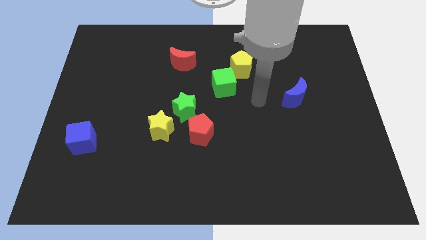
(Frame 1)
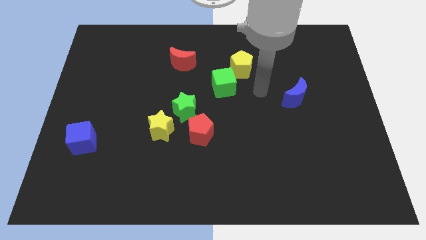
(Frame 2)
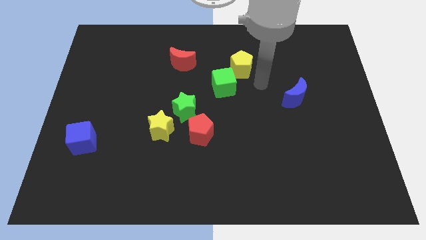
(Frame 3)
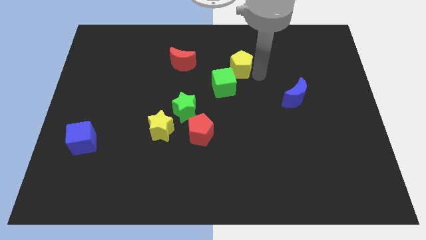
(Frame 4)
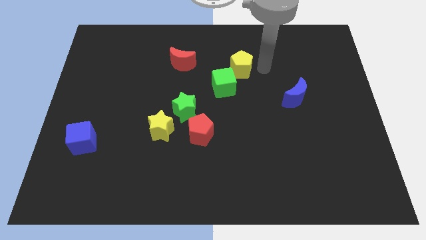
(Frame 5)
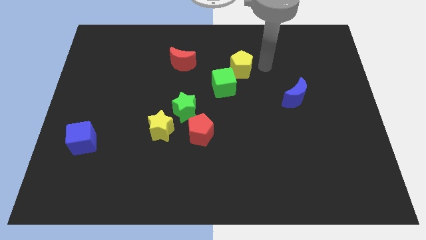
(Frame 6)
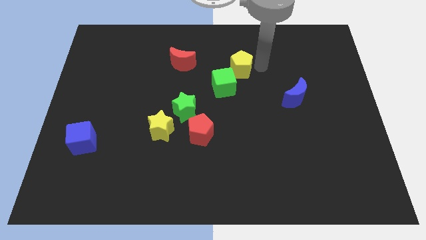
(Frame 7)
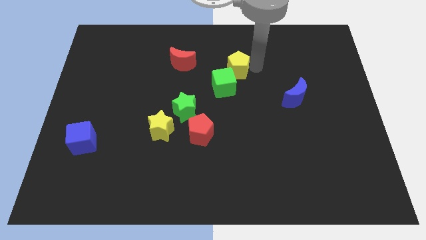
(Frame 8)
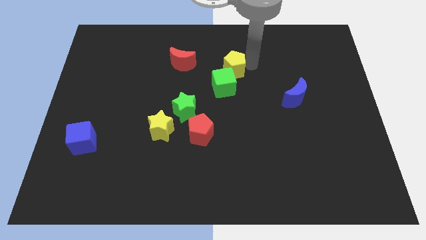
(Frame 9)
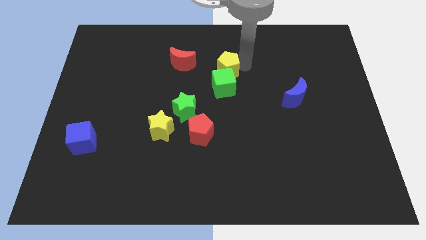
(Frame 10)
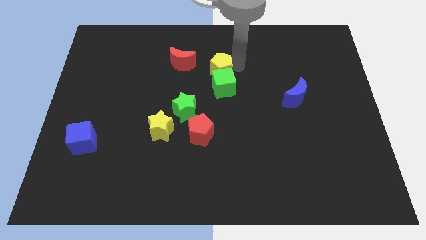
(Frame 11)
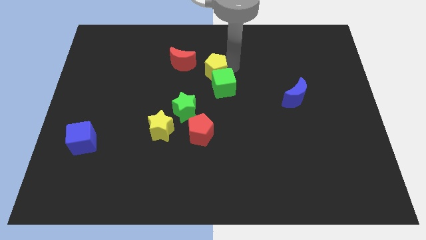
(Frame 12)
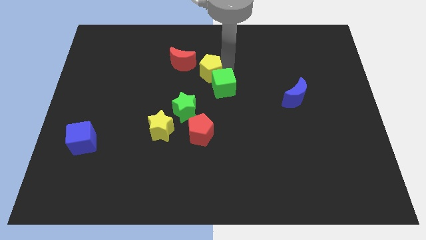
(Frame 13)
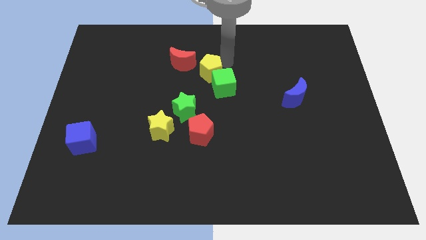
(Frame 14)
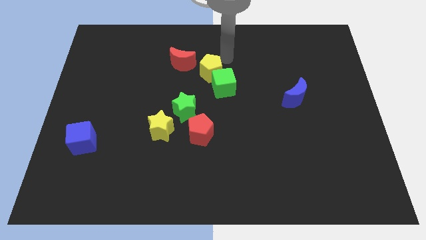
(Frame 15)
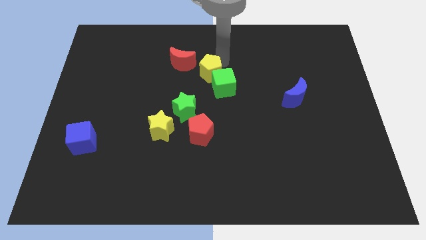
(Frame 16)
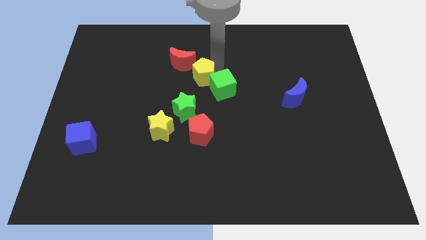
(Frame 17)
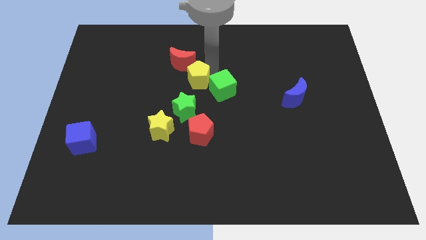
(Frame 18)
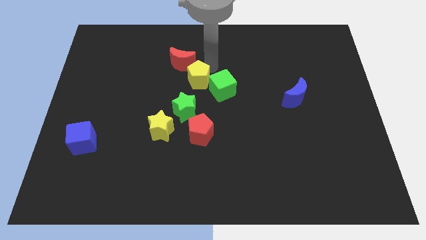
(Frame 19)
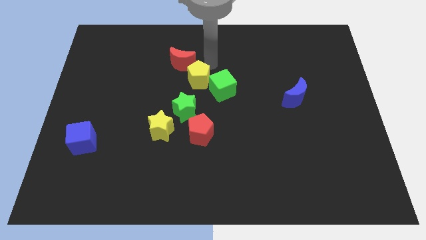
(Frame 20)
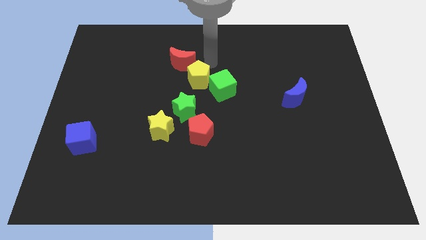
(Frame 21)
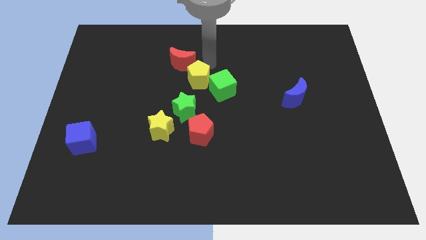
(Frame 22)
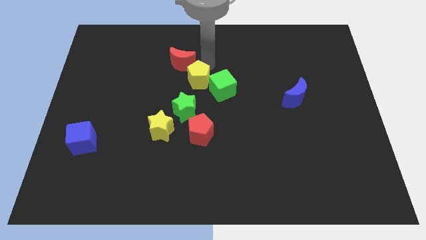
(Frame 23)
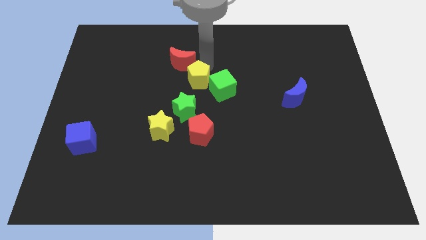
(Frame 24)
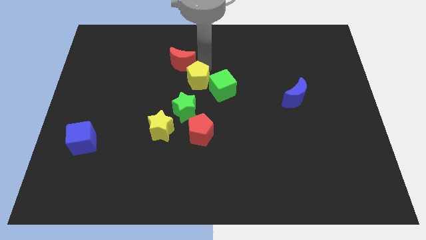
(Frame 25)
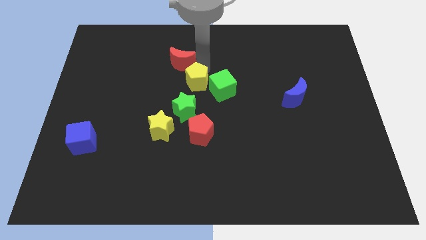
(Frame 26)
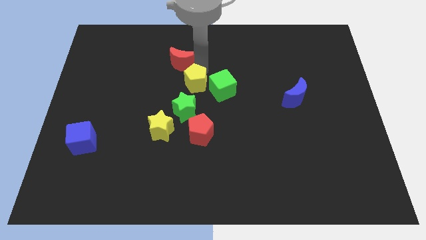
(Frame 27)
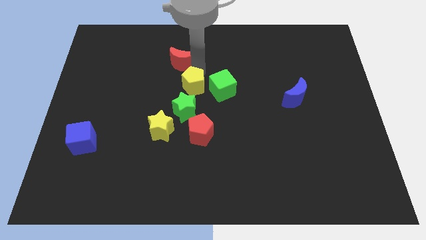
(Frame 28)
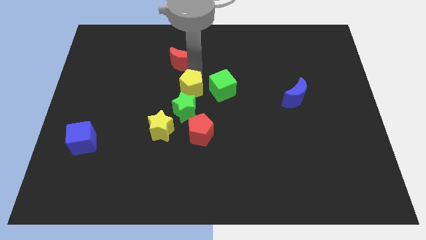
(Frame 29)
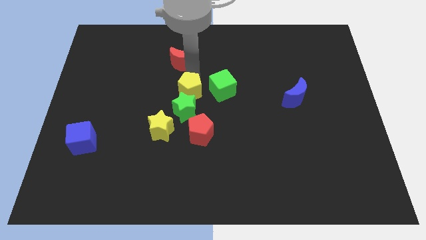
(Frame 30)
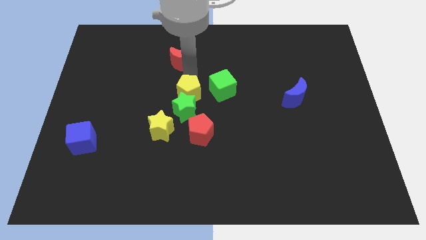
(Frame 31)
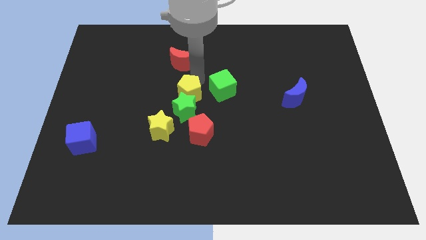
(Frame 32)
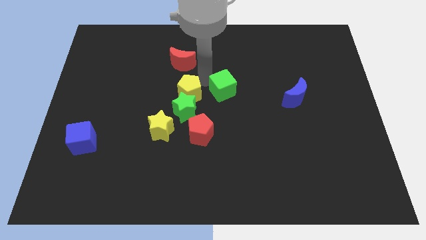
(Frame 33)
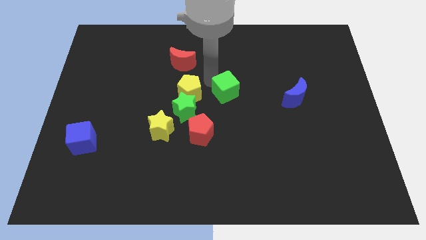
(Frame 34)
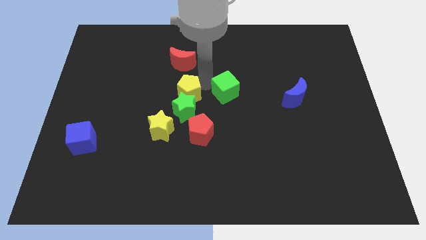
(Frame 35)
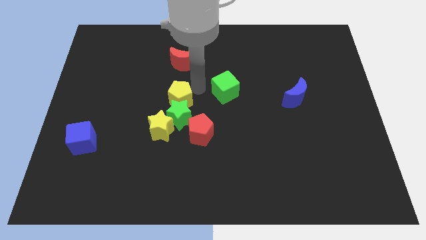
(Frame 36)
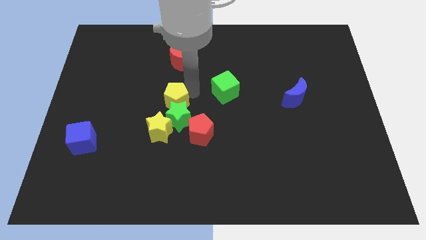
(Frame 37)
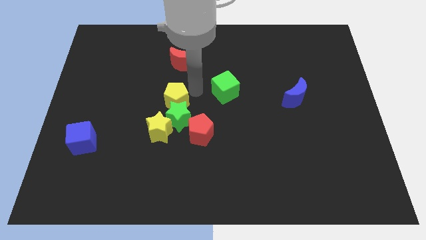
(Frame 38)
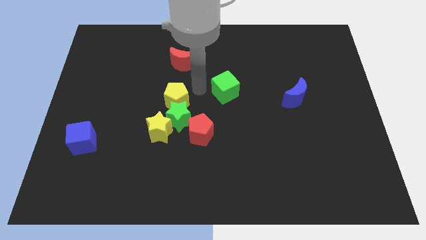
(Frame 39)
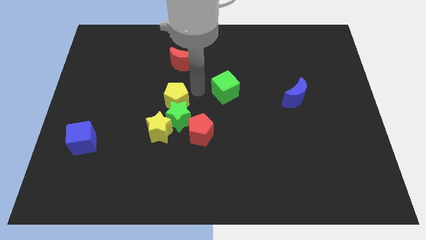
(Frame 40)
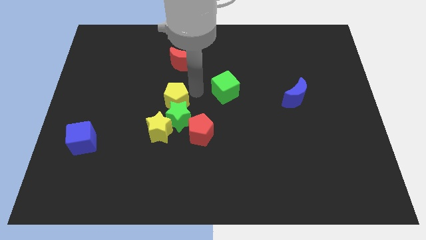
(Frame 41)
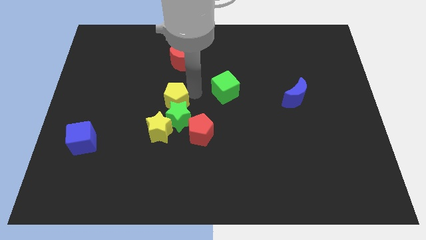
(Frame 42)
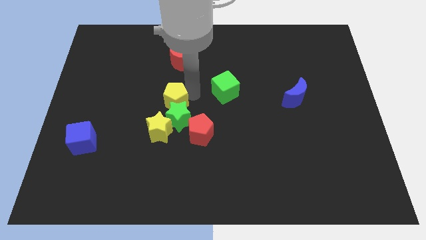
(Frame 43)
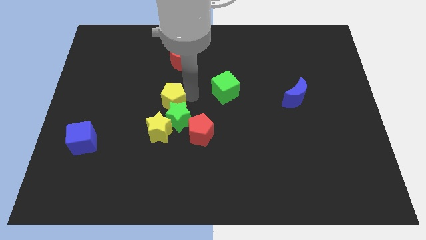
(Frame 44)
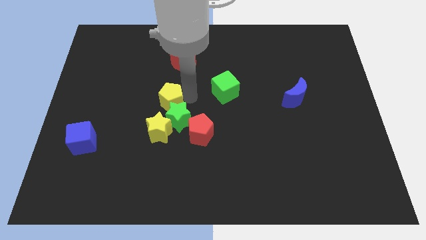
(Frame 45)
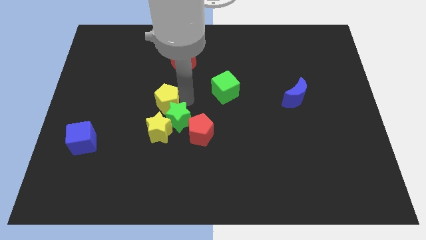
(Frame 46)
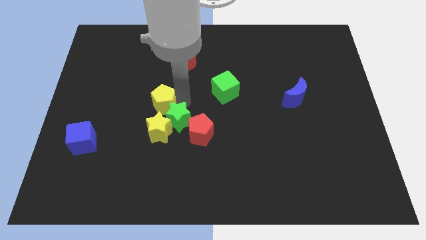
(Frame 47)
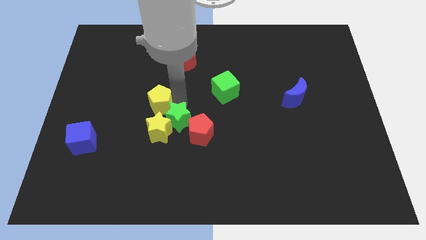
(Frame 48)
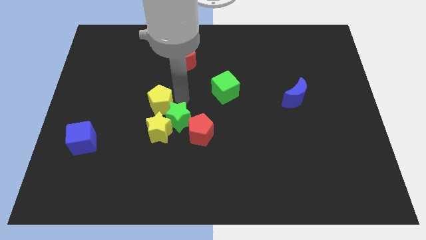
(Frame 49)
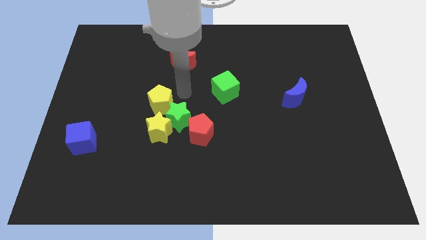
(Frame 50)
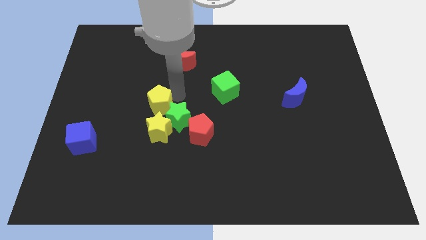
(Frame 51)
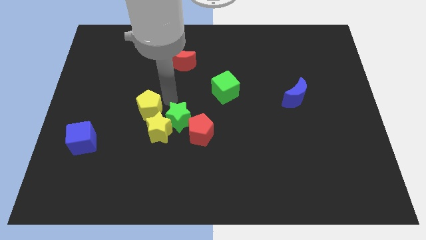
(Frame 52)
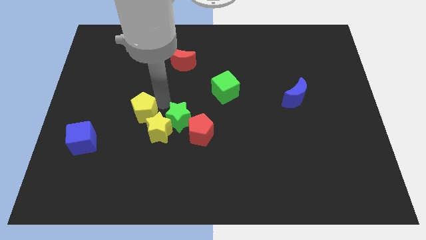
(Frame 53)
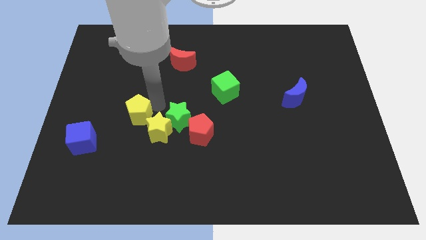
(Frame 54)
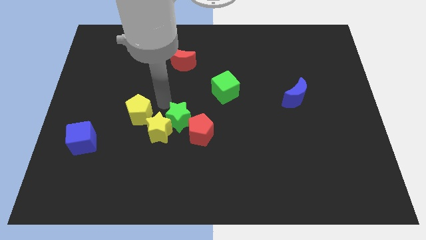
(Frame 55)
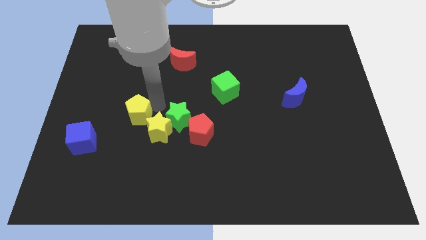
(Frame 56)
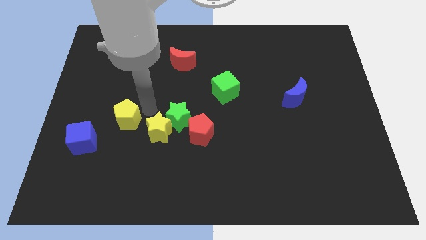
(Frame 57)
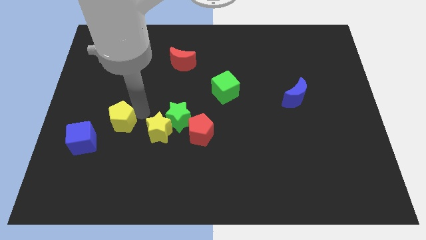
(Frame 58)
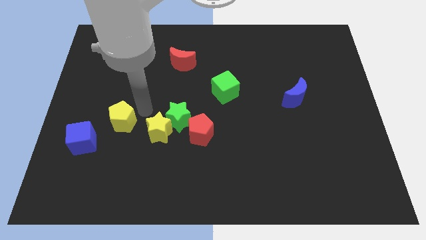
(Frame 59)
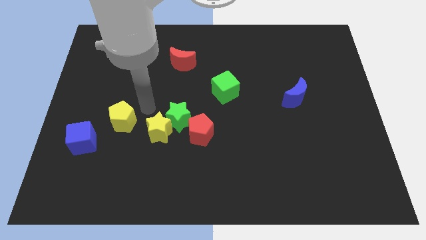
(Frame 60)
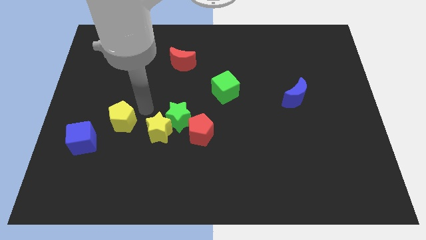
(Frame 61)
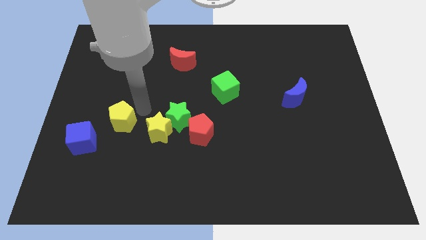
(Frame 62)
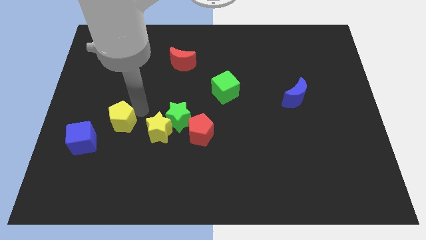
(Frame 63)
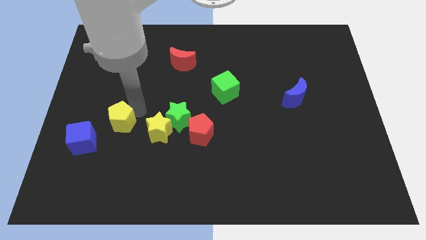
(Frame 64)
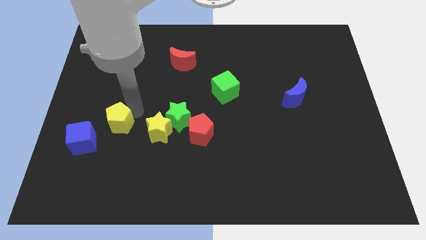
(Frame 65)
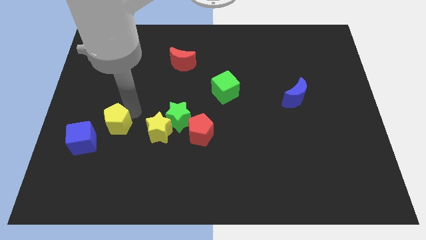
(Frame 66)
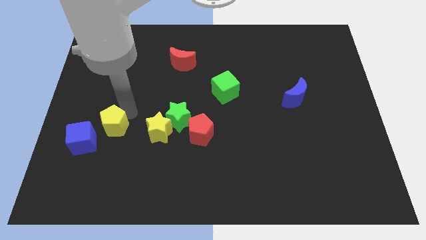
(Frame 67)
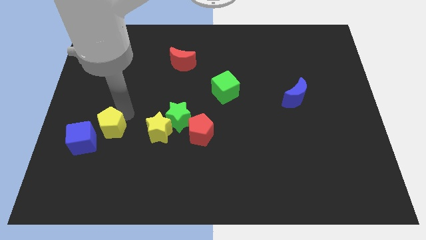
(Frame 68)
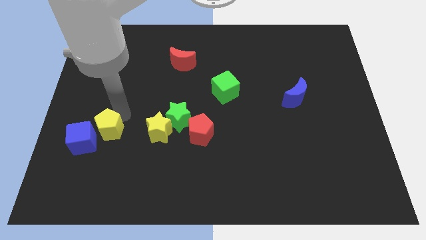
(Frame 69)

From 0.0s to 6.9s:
move the yellow pentagon towards the blue cube
